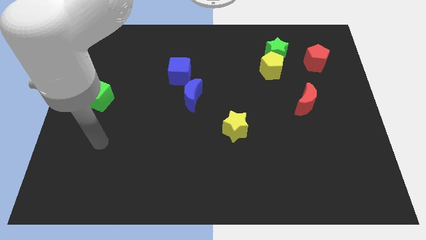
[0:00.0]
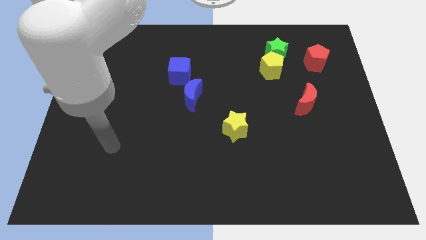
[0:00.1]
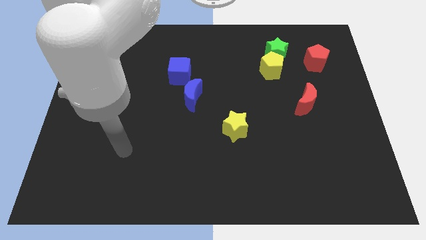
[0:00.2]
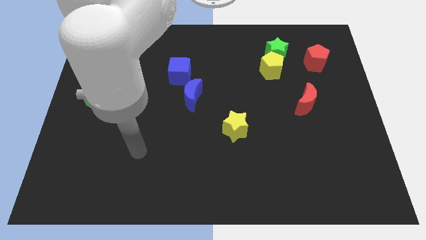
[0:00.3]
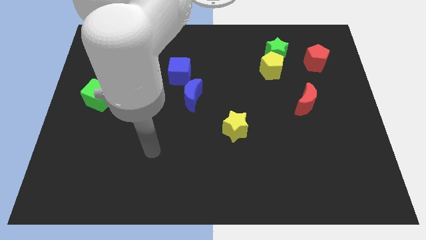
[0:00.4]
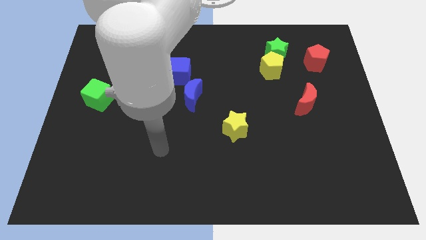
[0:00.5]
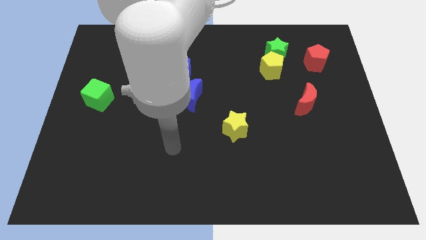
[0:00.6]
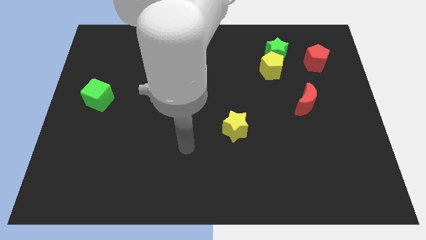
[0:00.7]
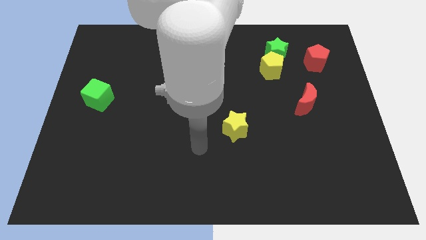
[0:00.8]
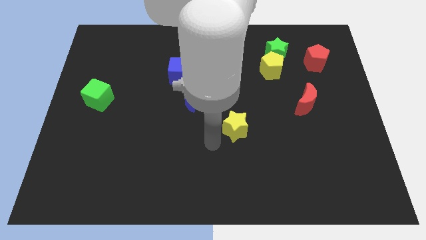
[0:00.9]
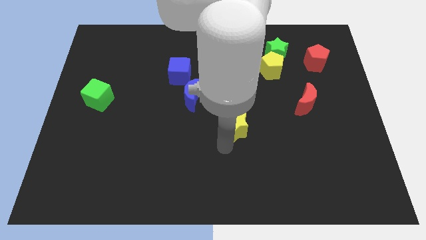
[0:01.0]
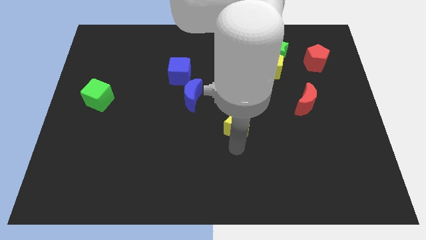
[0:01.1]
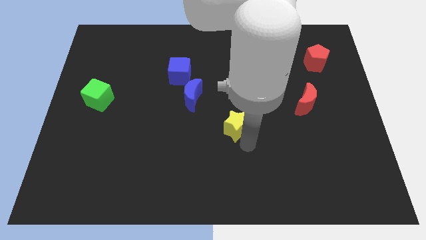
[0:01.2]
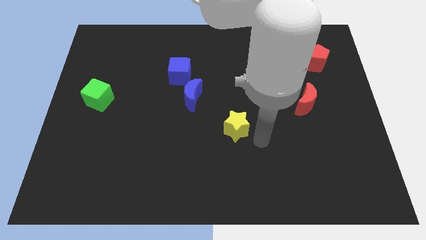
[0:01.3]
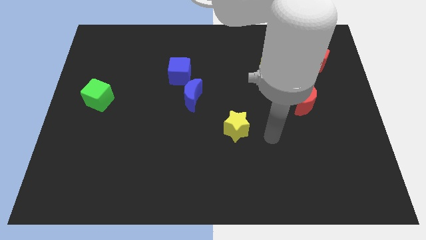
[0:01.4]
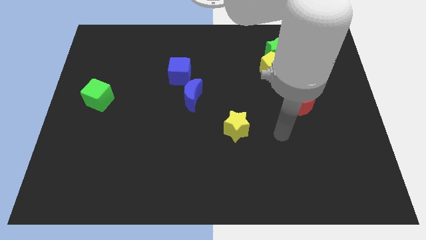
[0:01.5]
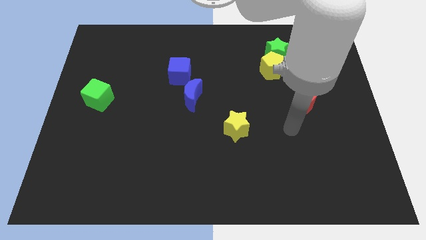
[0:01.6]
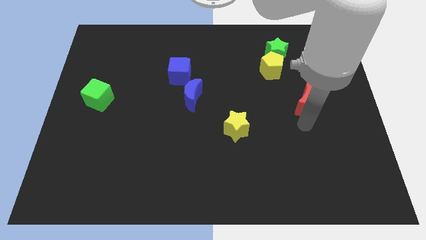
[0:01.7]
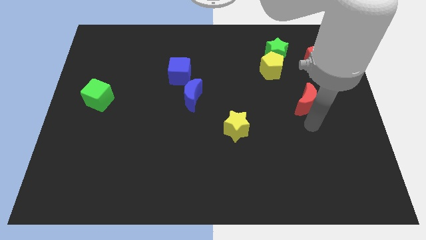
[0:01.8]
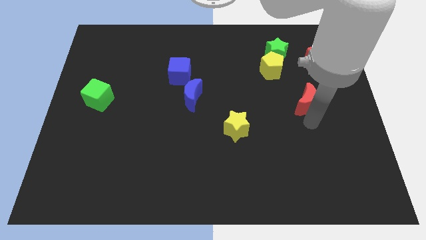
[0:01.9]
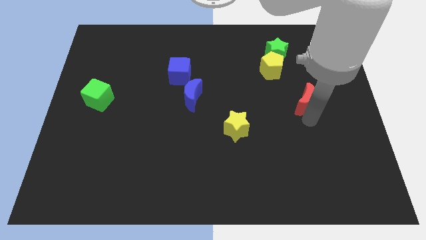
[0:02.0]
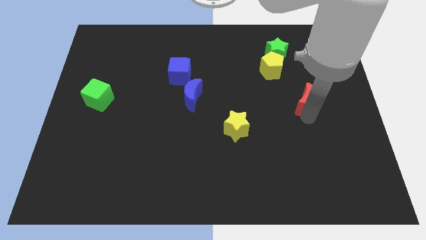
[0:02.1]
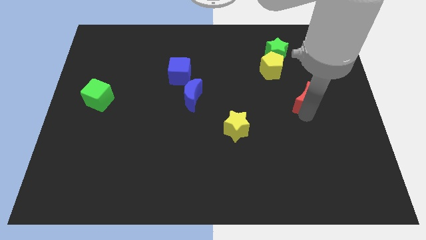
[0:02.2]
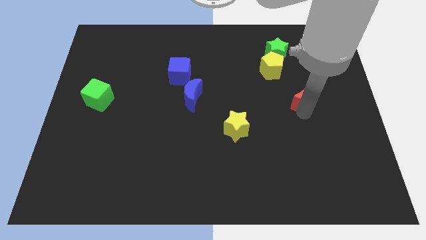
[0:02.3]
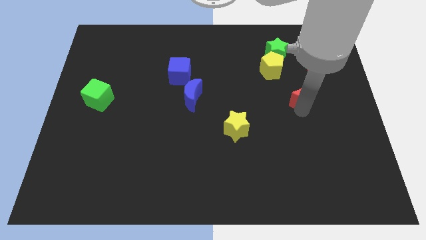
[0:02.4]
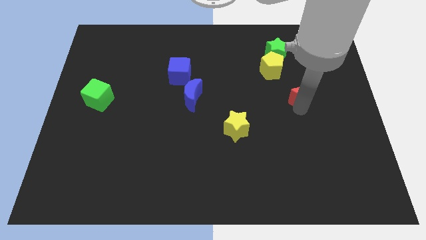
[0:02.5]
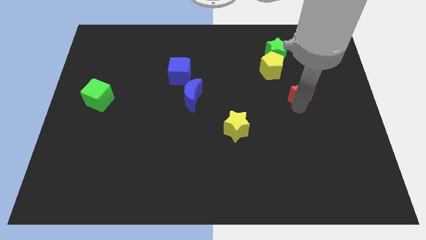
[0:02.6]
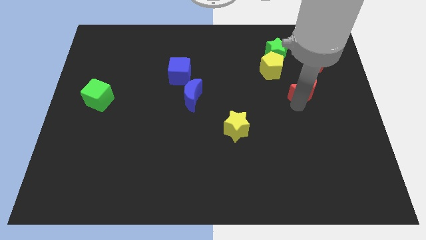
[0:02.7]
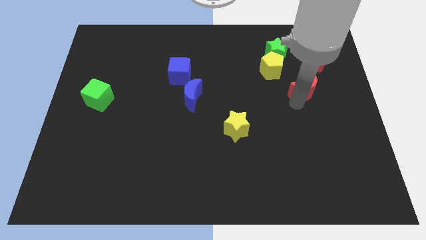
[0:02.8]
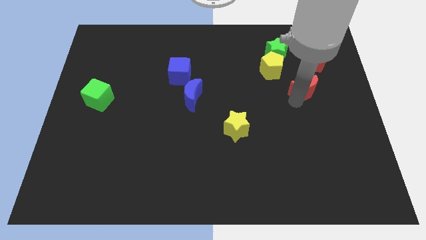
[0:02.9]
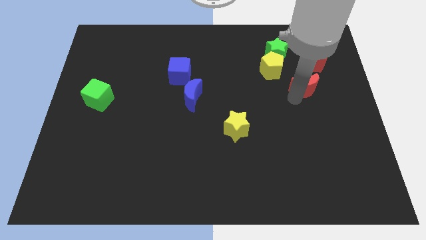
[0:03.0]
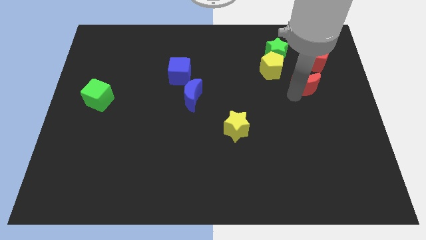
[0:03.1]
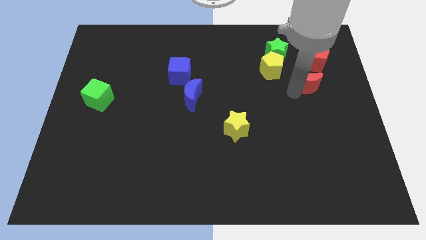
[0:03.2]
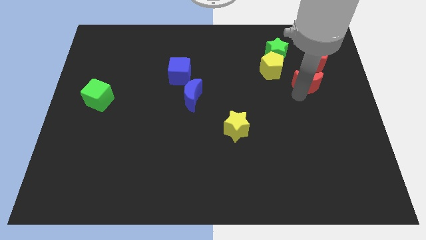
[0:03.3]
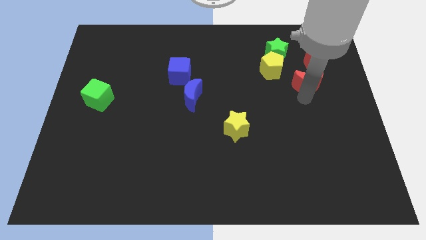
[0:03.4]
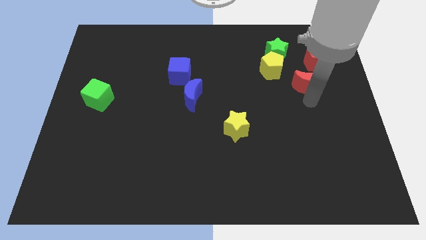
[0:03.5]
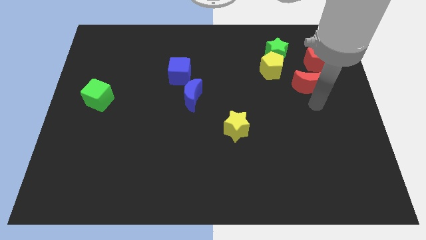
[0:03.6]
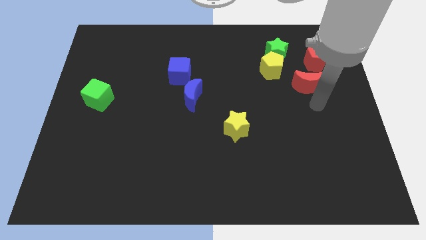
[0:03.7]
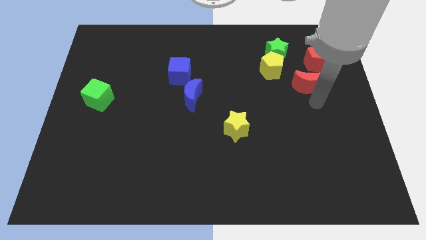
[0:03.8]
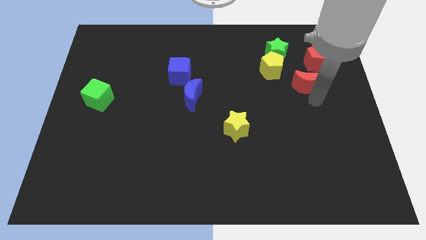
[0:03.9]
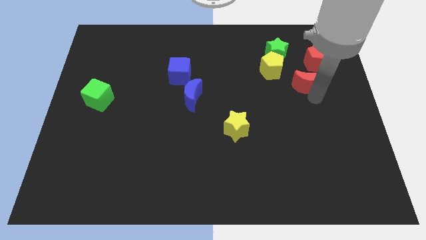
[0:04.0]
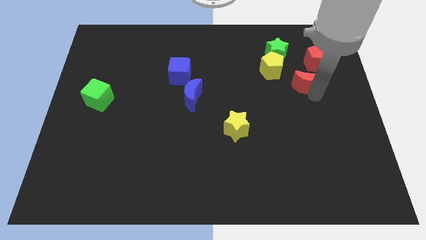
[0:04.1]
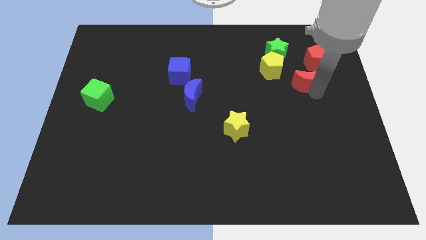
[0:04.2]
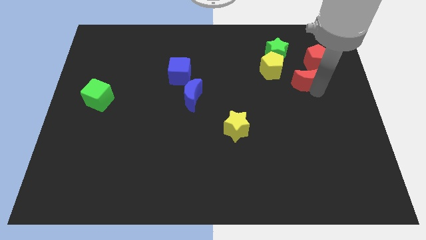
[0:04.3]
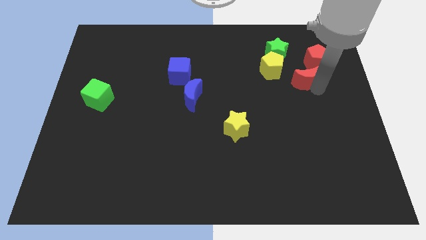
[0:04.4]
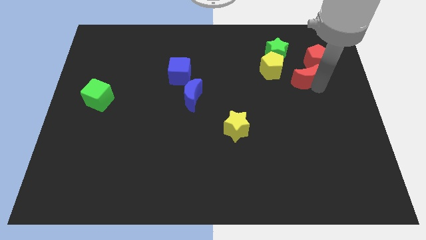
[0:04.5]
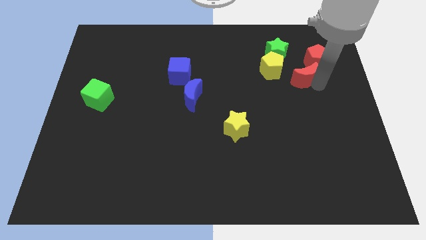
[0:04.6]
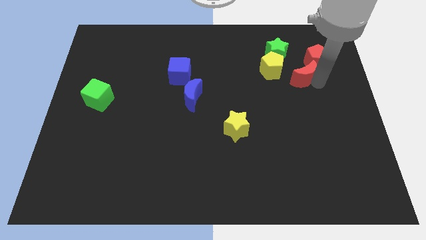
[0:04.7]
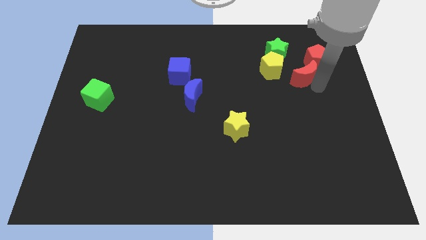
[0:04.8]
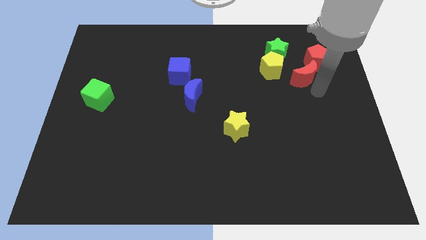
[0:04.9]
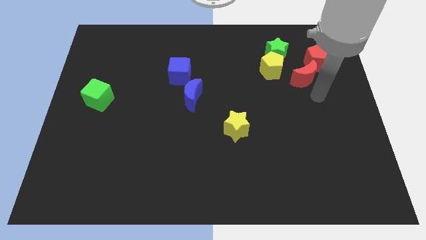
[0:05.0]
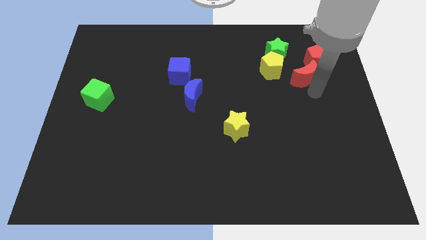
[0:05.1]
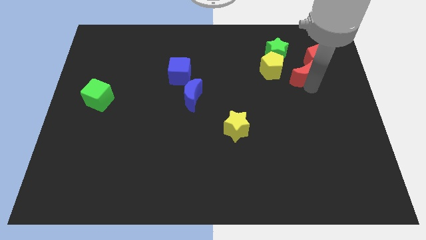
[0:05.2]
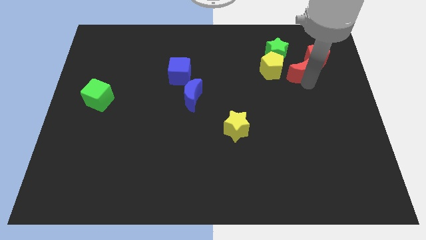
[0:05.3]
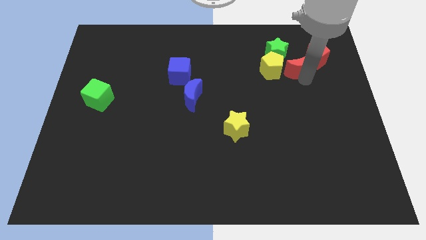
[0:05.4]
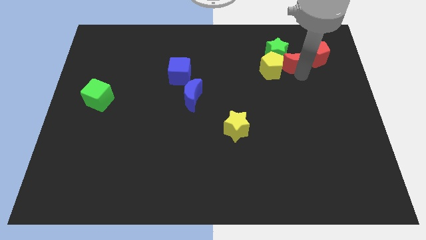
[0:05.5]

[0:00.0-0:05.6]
move the red moon diagonally up and to the right of the yellow pentagon

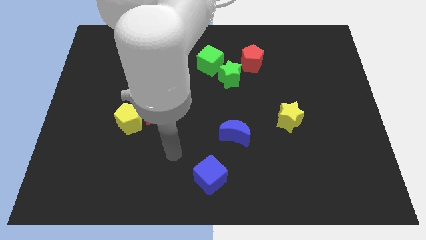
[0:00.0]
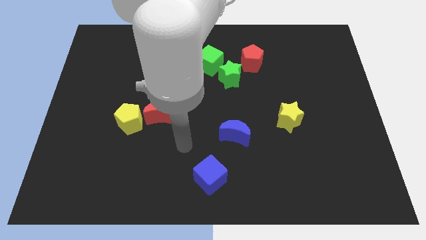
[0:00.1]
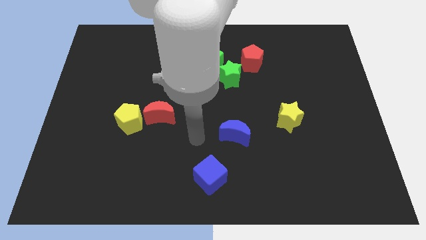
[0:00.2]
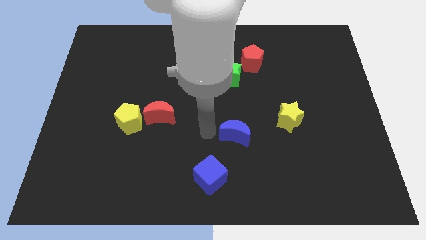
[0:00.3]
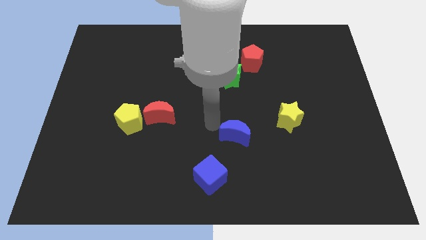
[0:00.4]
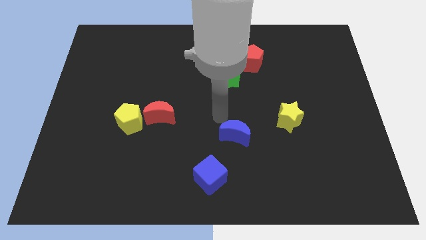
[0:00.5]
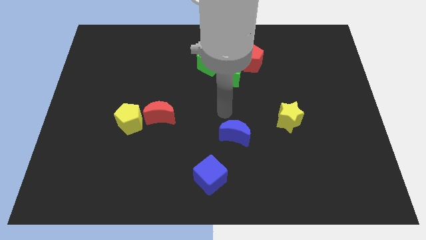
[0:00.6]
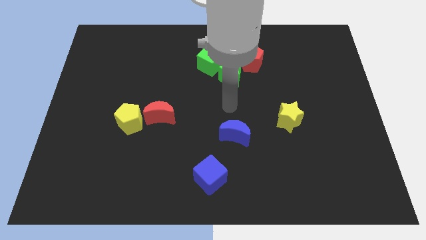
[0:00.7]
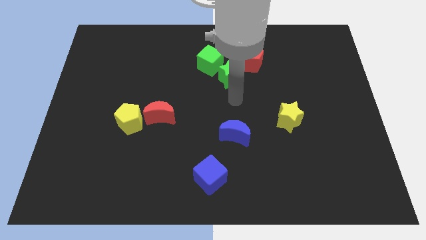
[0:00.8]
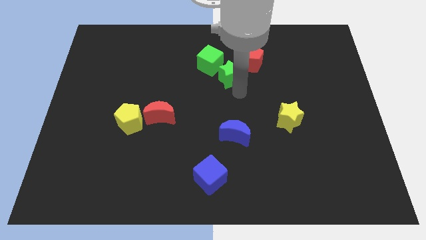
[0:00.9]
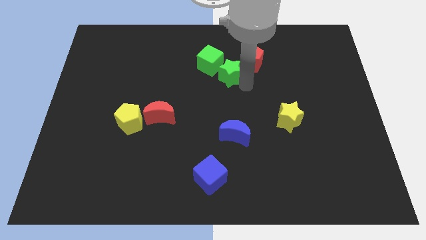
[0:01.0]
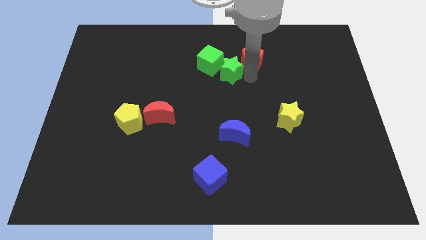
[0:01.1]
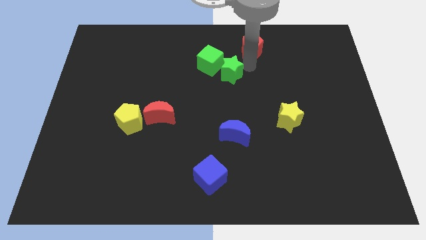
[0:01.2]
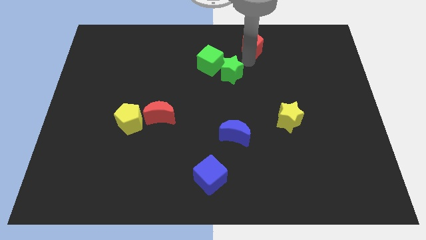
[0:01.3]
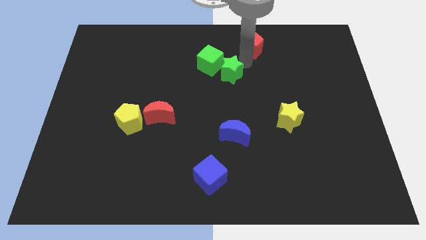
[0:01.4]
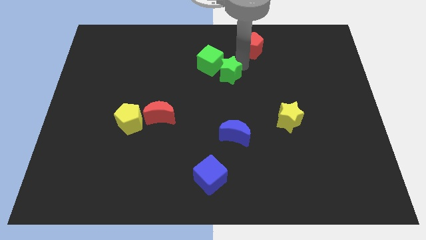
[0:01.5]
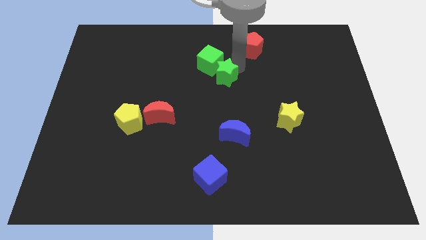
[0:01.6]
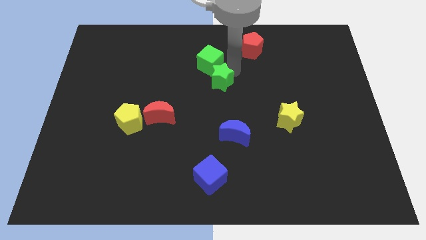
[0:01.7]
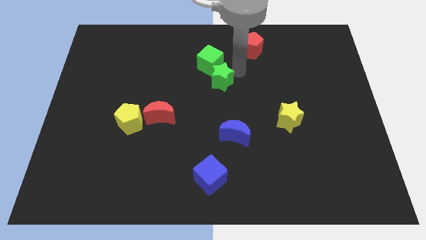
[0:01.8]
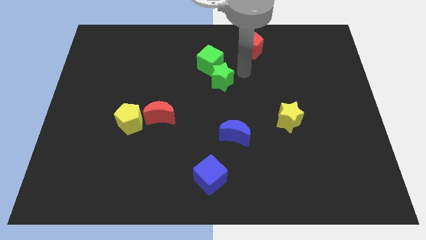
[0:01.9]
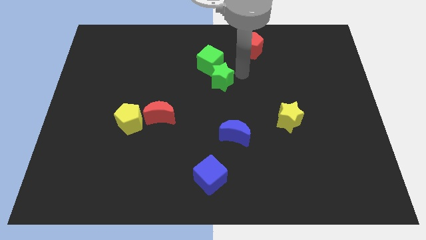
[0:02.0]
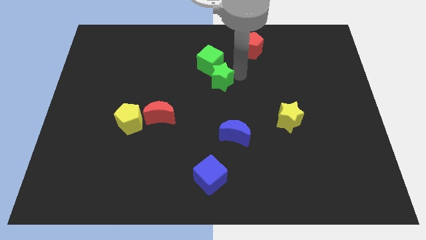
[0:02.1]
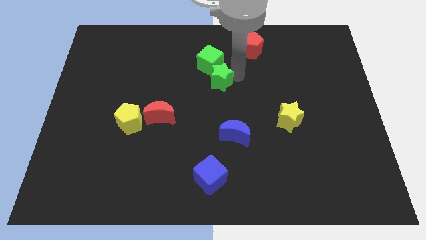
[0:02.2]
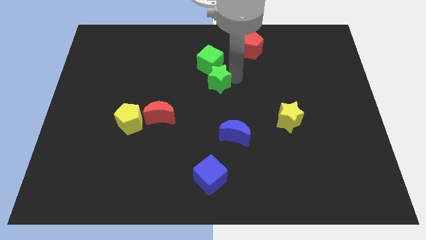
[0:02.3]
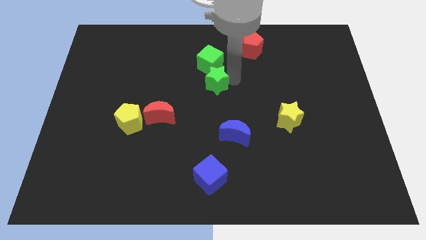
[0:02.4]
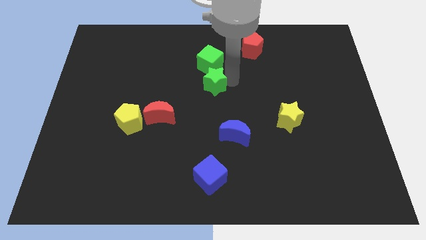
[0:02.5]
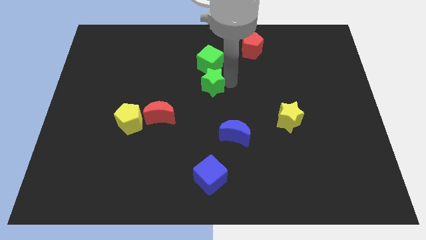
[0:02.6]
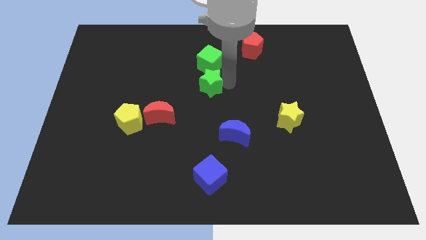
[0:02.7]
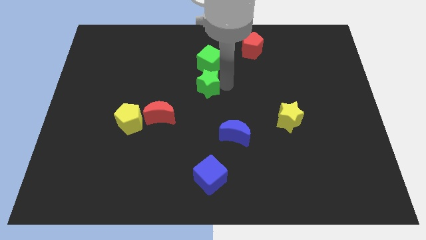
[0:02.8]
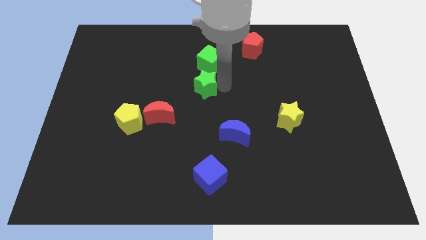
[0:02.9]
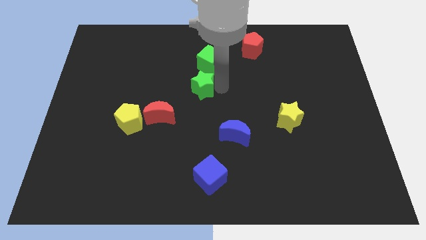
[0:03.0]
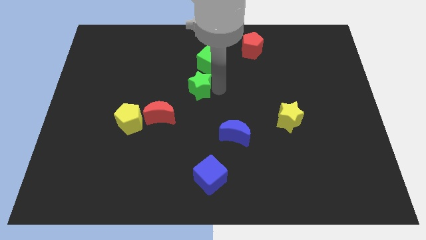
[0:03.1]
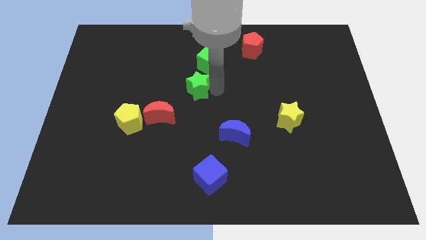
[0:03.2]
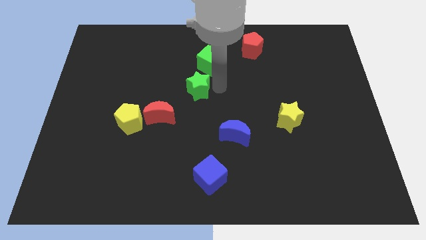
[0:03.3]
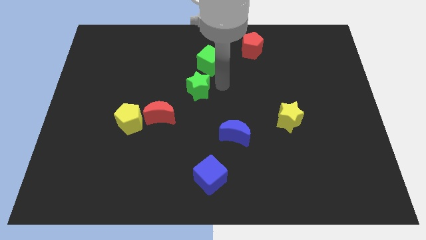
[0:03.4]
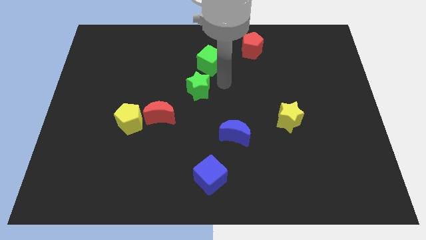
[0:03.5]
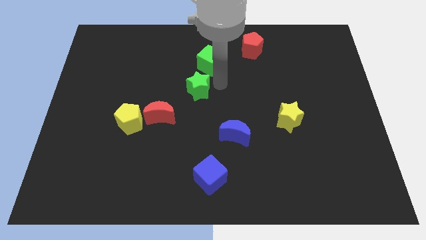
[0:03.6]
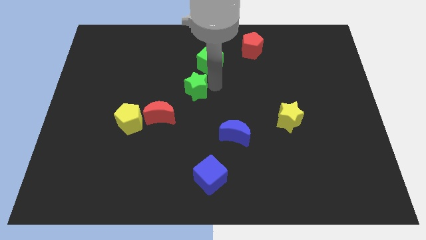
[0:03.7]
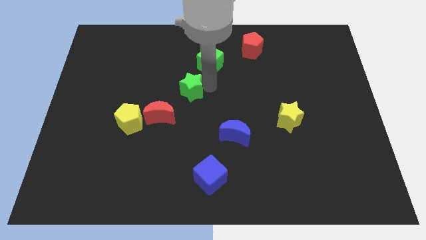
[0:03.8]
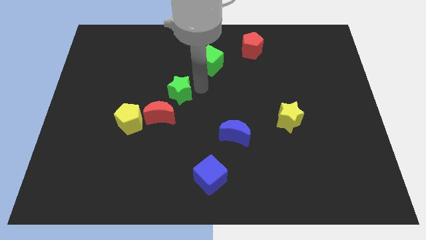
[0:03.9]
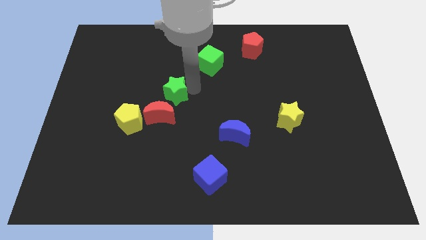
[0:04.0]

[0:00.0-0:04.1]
slide the green star to the top right of the yellow pentagon
